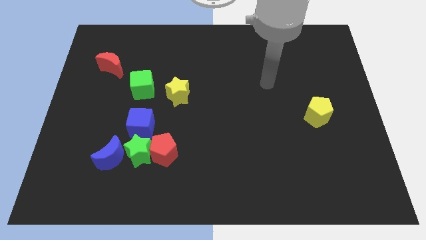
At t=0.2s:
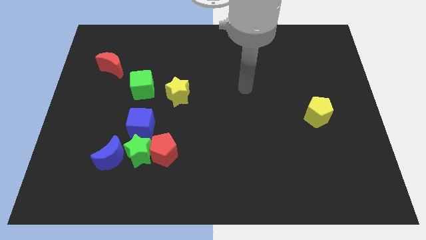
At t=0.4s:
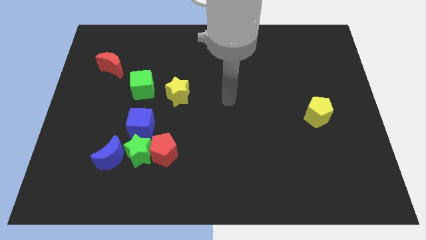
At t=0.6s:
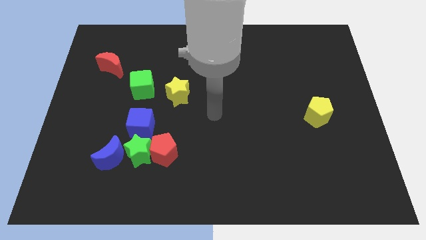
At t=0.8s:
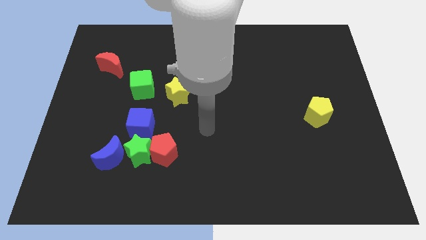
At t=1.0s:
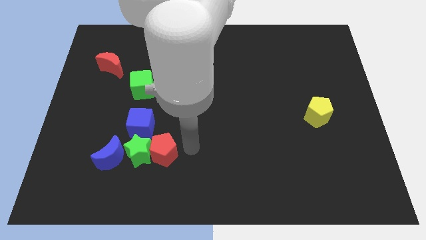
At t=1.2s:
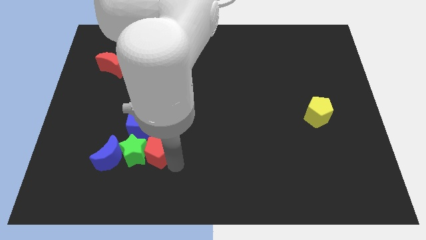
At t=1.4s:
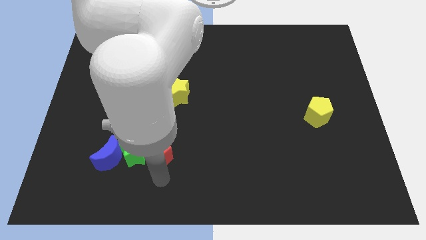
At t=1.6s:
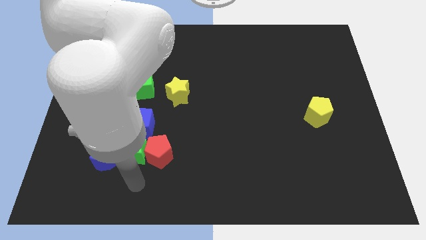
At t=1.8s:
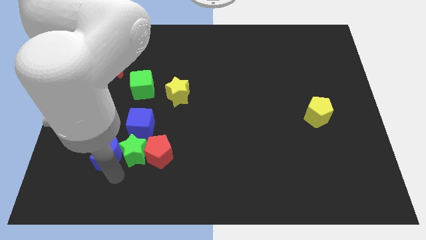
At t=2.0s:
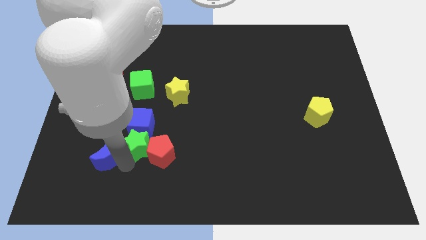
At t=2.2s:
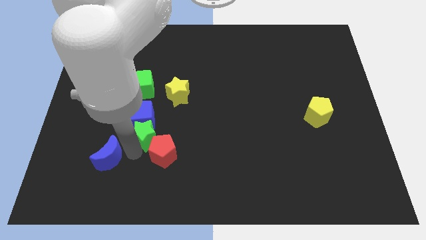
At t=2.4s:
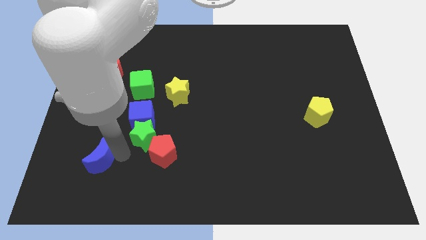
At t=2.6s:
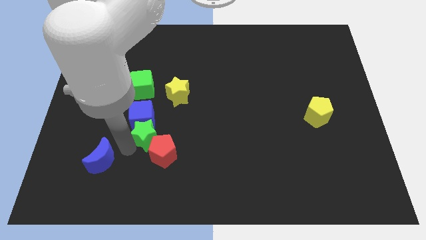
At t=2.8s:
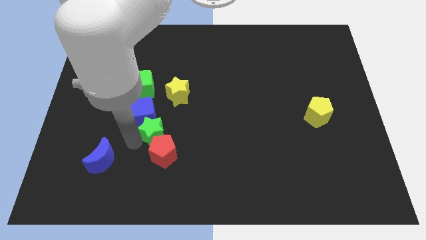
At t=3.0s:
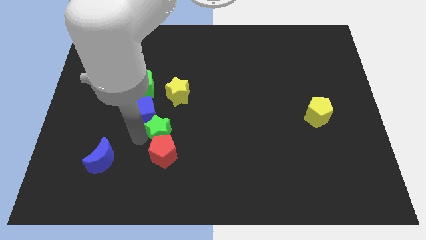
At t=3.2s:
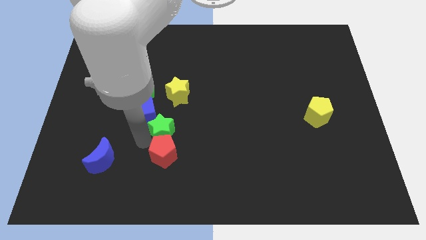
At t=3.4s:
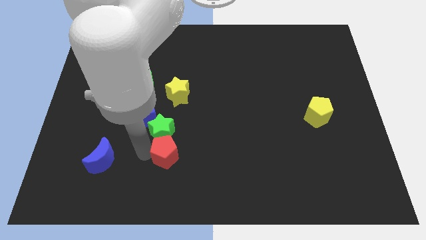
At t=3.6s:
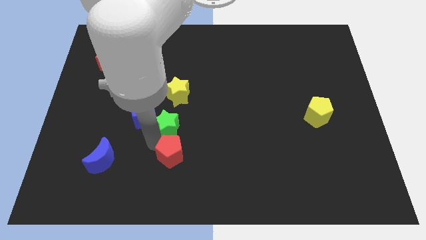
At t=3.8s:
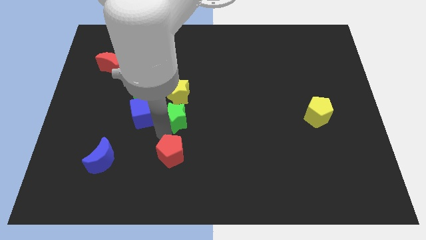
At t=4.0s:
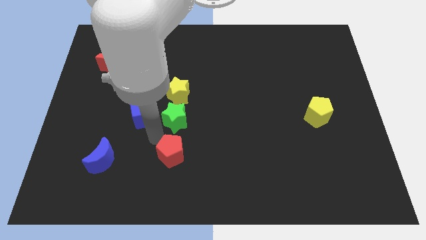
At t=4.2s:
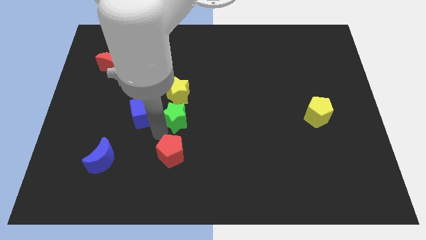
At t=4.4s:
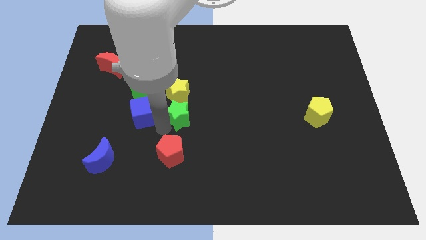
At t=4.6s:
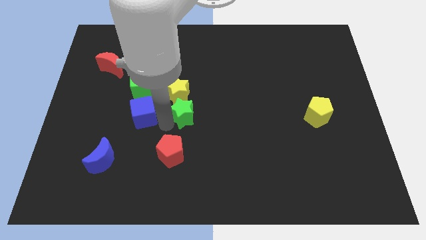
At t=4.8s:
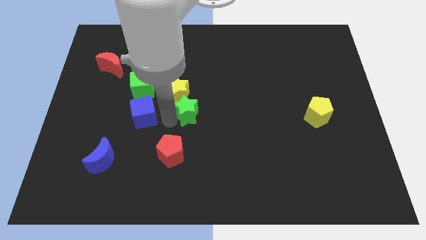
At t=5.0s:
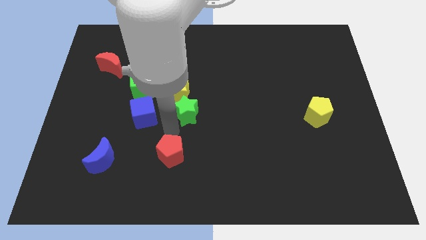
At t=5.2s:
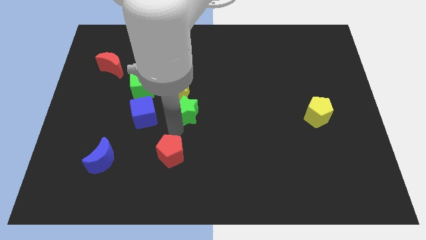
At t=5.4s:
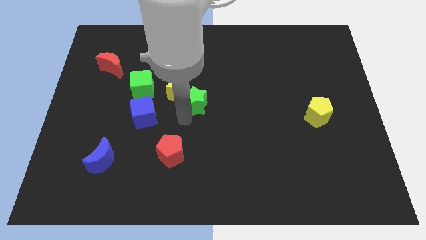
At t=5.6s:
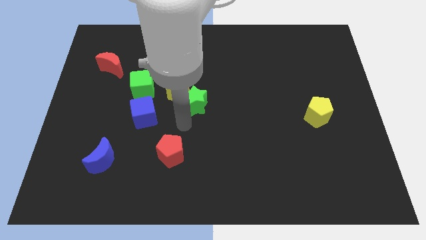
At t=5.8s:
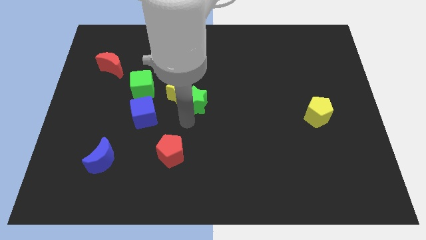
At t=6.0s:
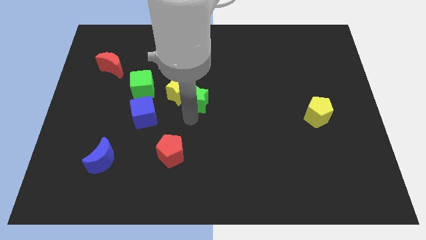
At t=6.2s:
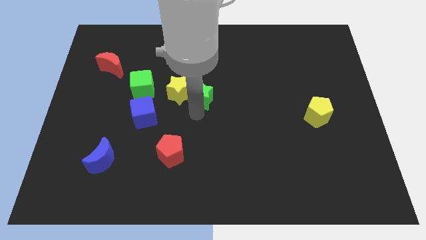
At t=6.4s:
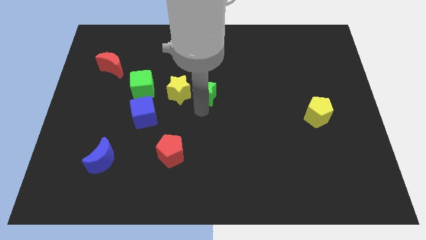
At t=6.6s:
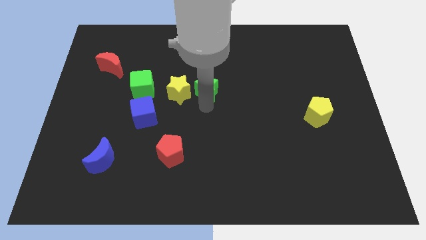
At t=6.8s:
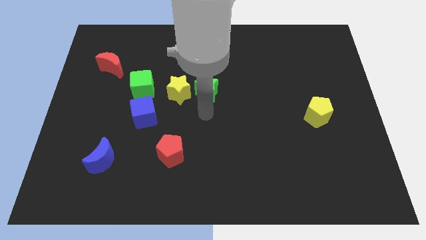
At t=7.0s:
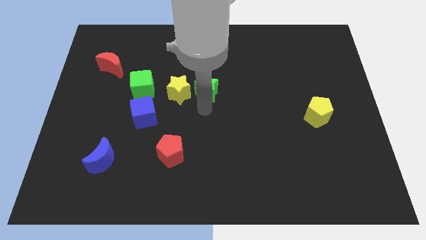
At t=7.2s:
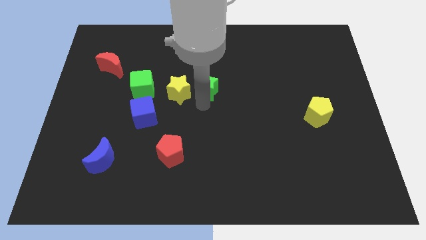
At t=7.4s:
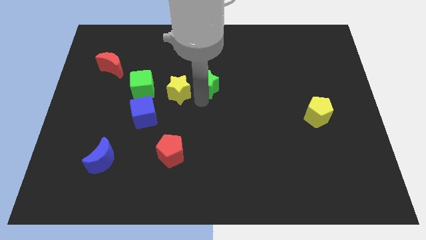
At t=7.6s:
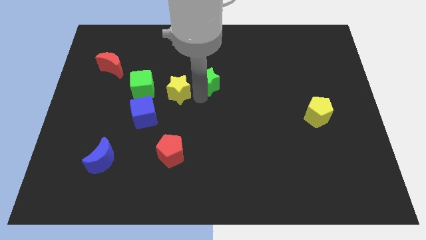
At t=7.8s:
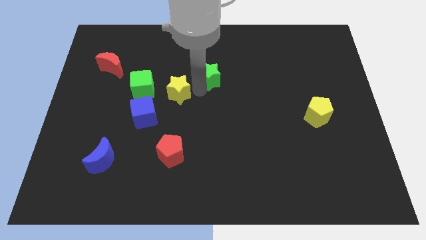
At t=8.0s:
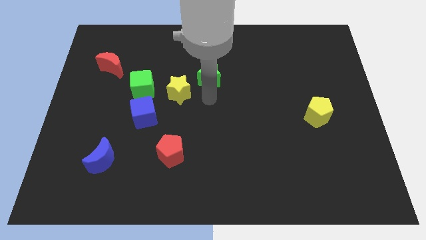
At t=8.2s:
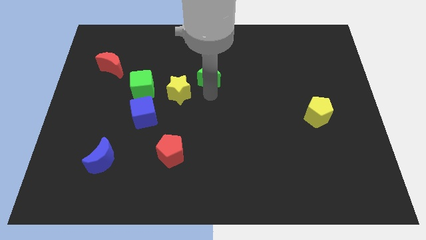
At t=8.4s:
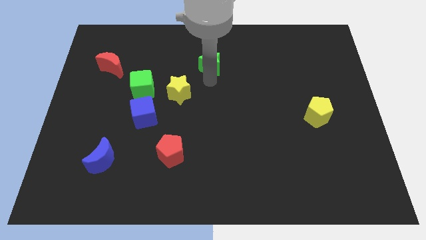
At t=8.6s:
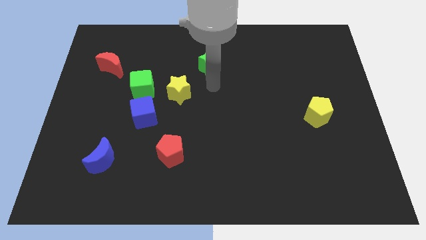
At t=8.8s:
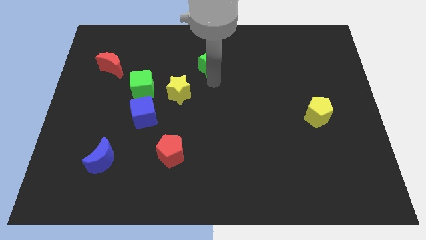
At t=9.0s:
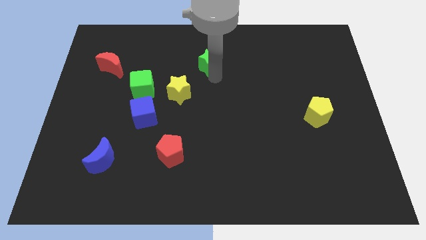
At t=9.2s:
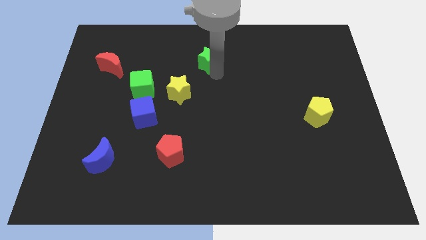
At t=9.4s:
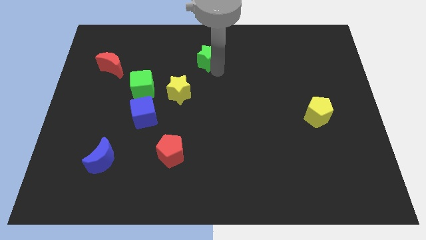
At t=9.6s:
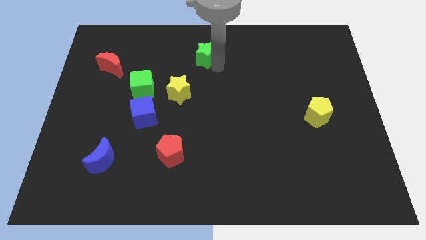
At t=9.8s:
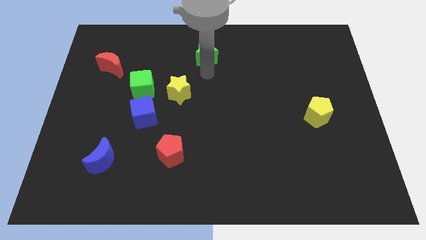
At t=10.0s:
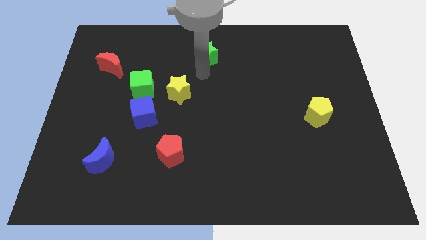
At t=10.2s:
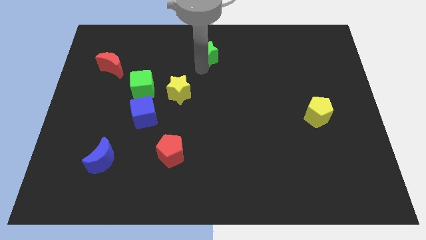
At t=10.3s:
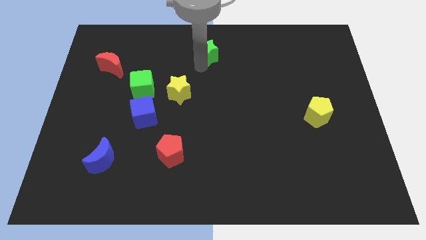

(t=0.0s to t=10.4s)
push the green star to the towards your base

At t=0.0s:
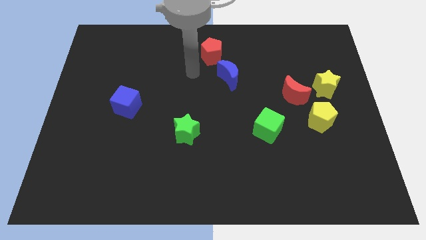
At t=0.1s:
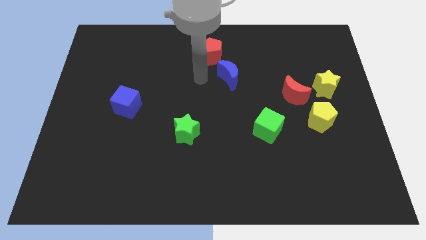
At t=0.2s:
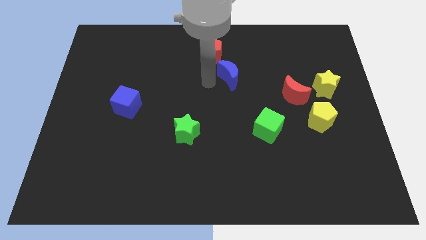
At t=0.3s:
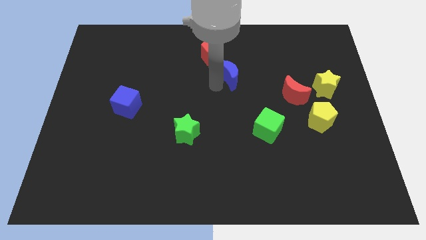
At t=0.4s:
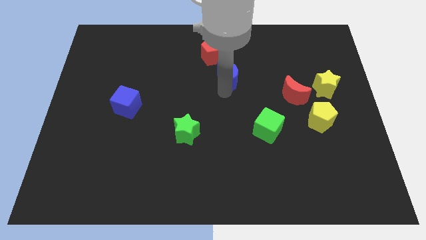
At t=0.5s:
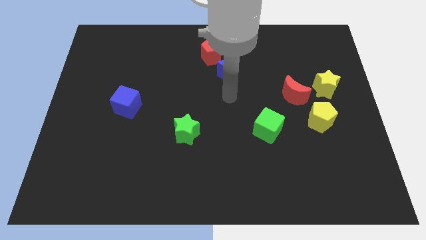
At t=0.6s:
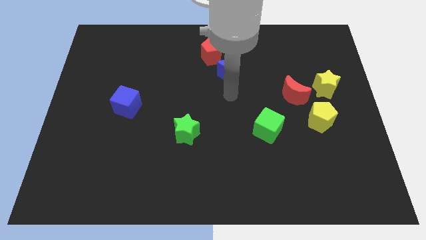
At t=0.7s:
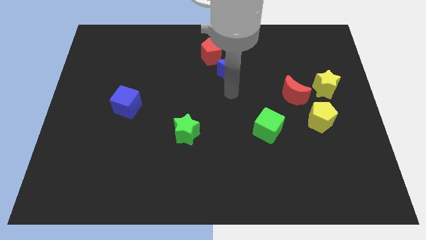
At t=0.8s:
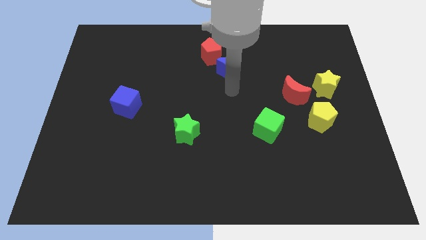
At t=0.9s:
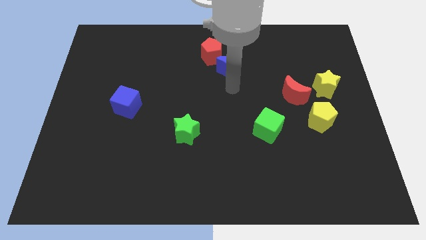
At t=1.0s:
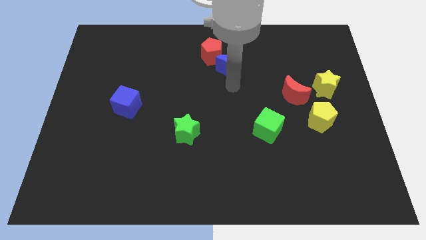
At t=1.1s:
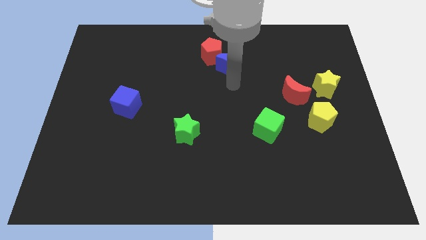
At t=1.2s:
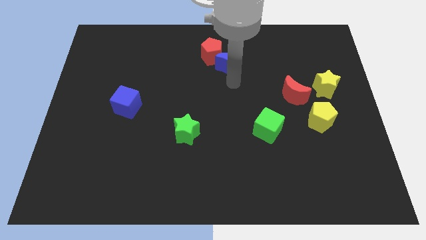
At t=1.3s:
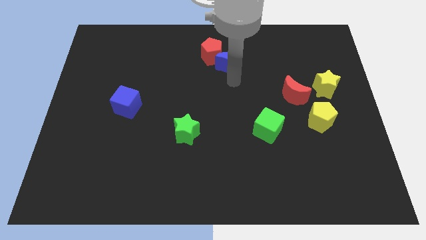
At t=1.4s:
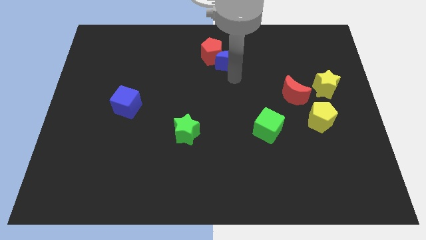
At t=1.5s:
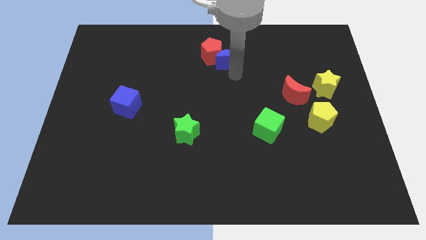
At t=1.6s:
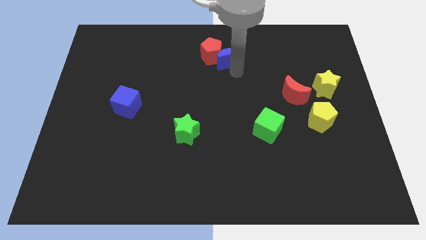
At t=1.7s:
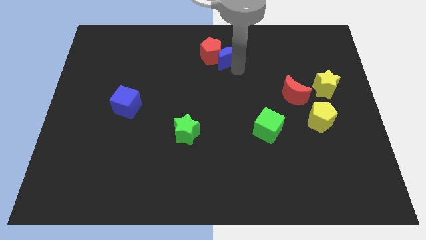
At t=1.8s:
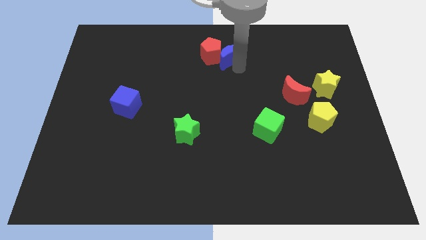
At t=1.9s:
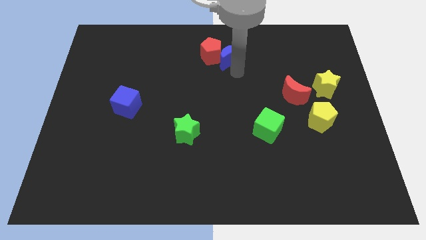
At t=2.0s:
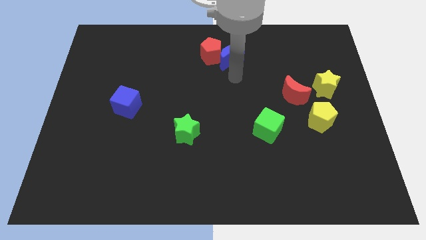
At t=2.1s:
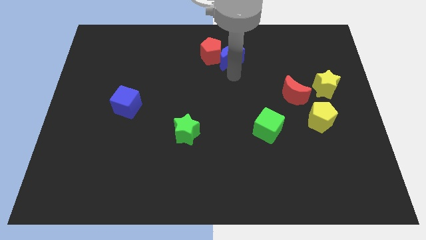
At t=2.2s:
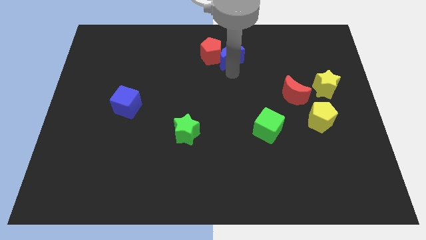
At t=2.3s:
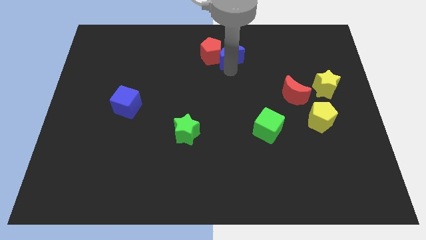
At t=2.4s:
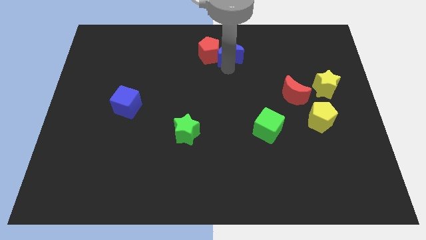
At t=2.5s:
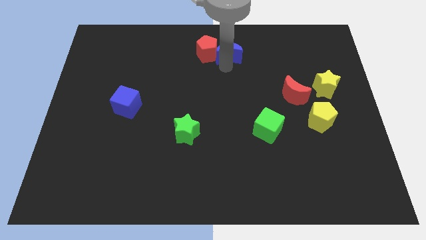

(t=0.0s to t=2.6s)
move the blue moon to the towards your base
